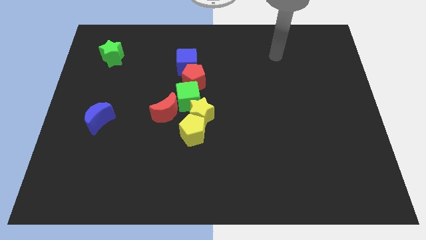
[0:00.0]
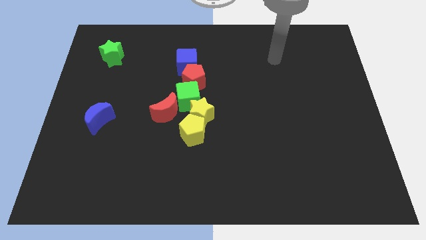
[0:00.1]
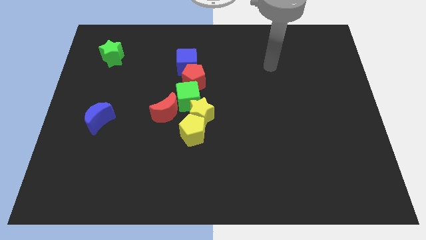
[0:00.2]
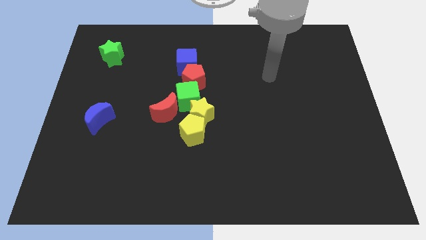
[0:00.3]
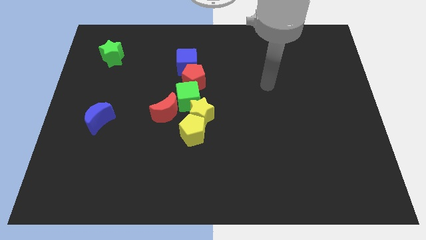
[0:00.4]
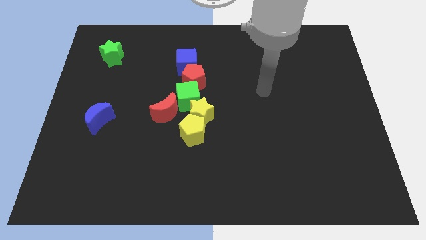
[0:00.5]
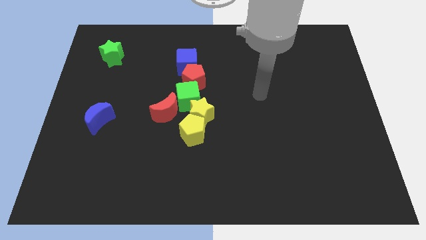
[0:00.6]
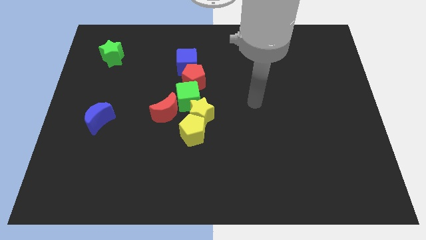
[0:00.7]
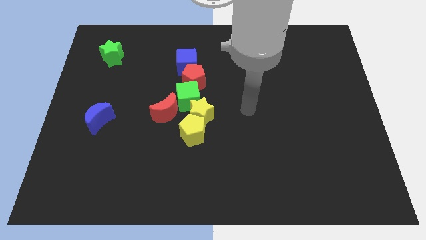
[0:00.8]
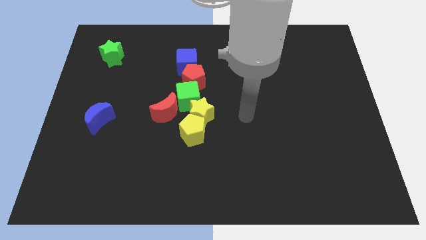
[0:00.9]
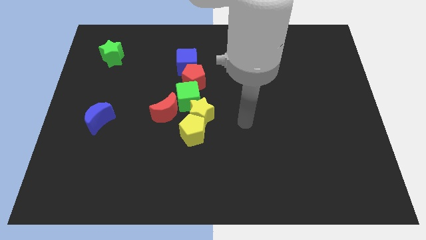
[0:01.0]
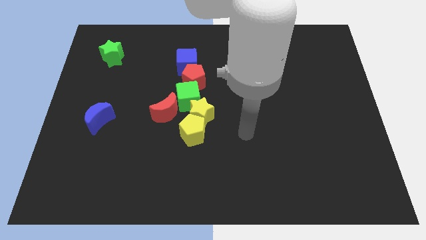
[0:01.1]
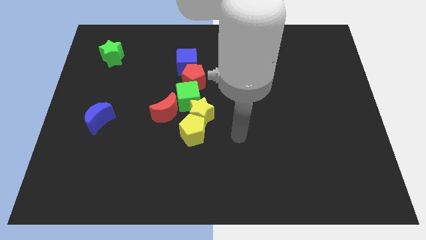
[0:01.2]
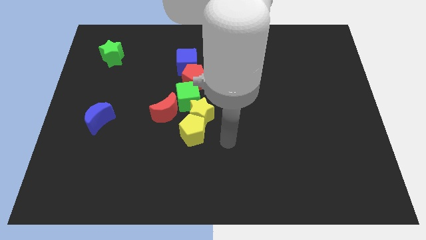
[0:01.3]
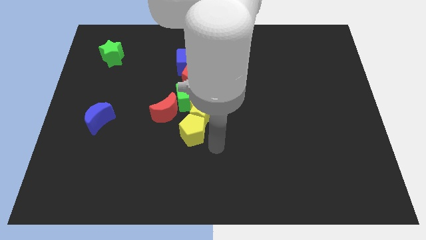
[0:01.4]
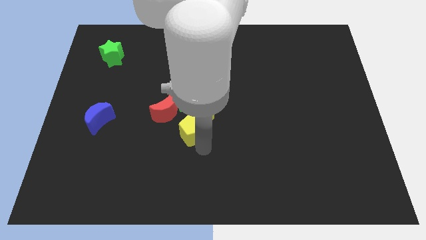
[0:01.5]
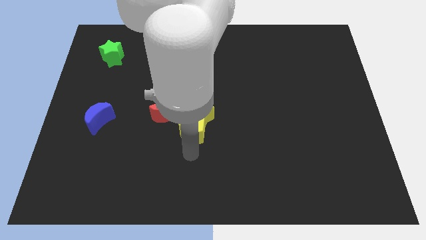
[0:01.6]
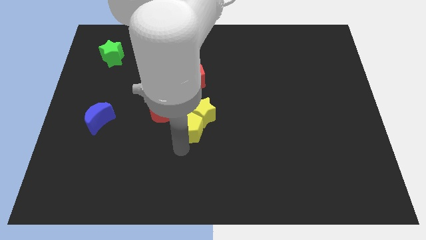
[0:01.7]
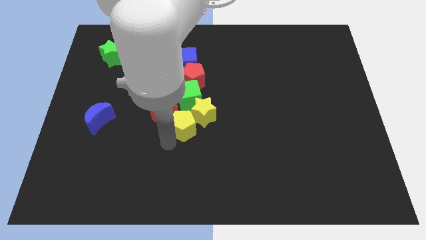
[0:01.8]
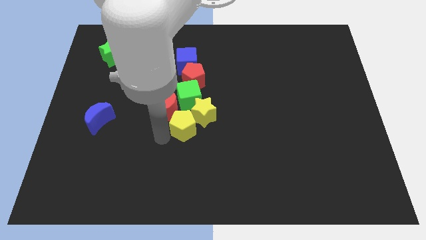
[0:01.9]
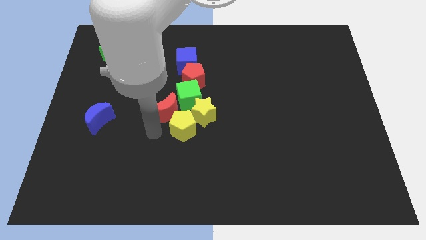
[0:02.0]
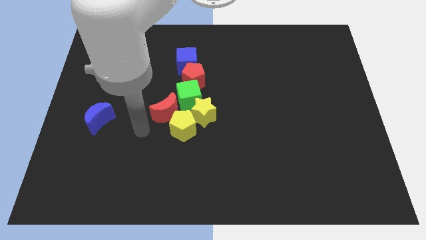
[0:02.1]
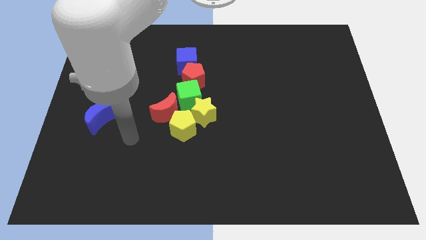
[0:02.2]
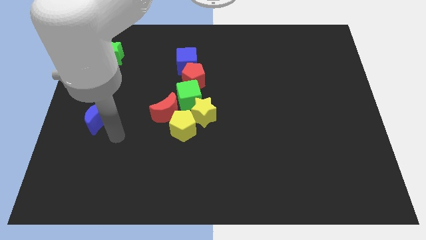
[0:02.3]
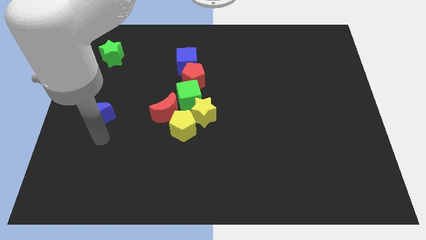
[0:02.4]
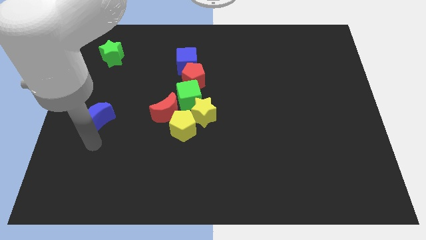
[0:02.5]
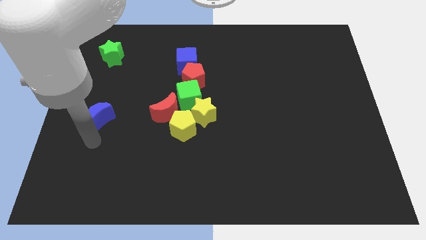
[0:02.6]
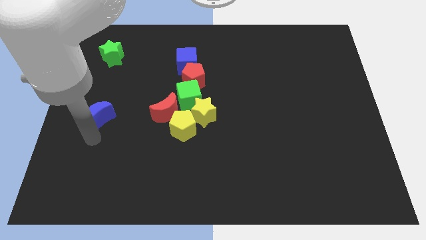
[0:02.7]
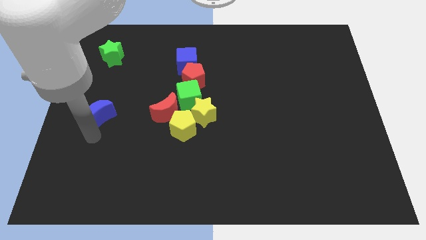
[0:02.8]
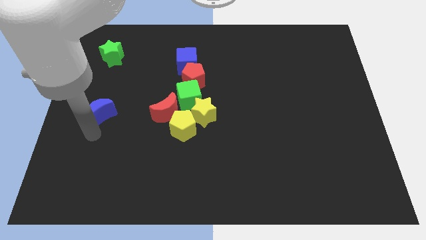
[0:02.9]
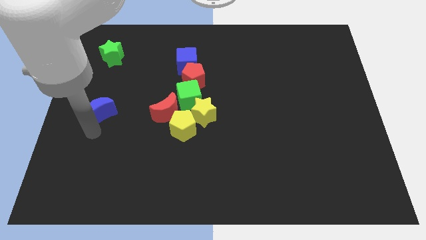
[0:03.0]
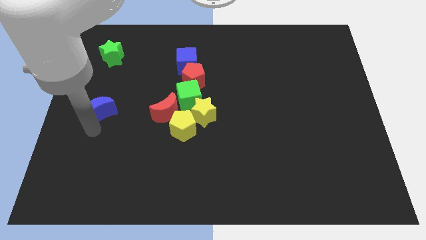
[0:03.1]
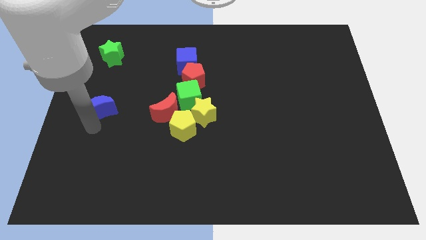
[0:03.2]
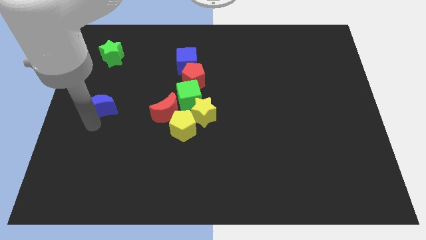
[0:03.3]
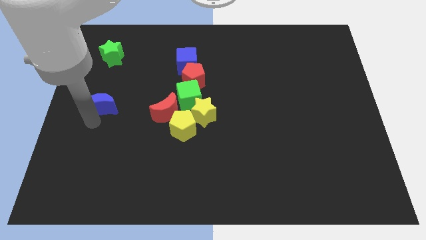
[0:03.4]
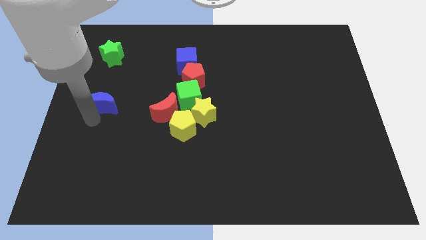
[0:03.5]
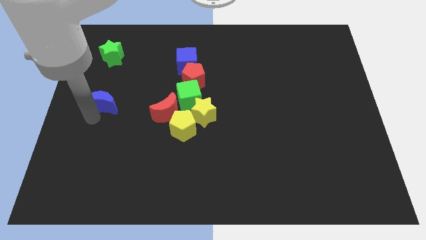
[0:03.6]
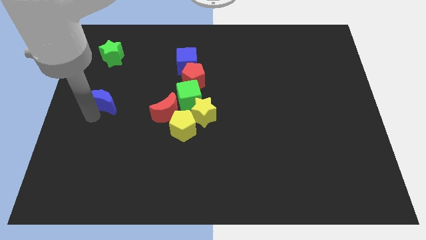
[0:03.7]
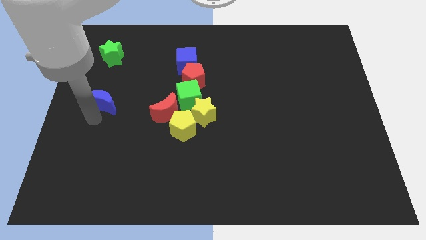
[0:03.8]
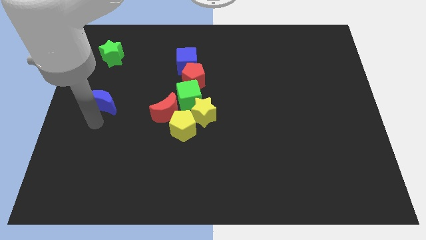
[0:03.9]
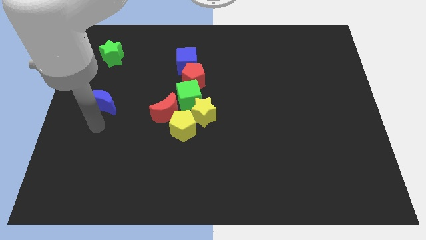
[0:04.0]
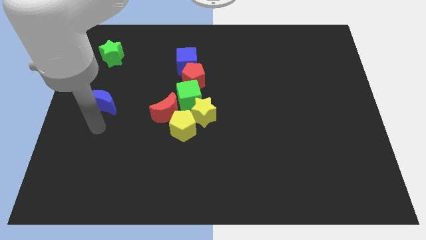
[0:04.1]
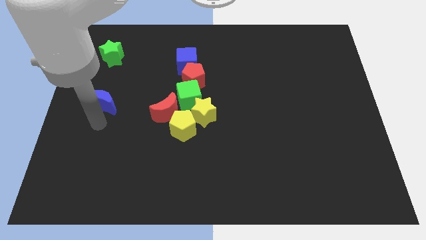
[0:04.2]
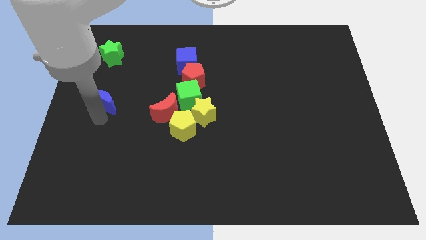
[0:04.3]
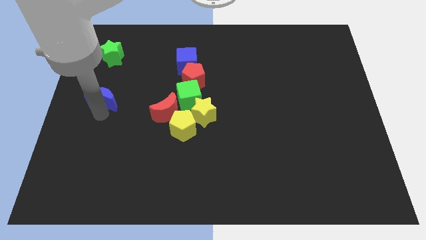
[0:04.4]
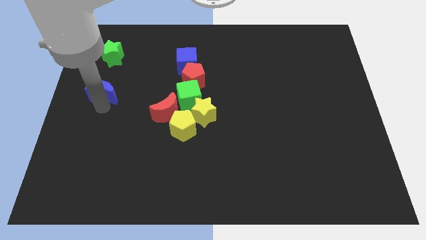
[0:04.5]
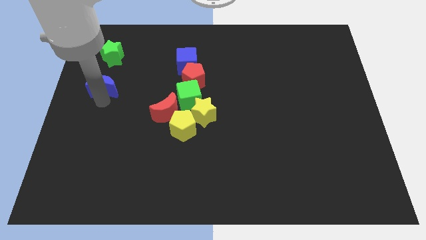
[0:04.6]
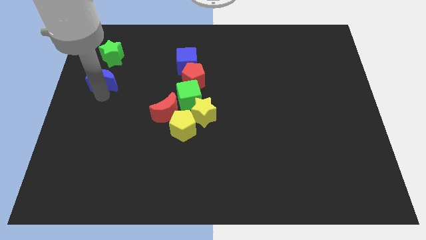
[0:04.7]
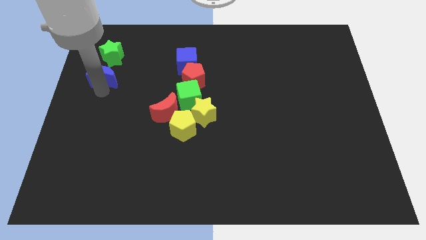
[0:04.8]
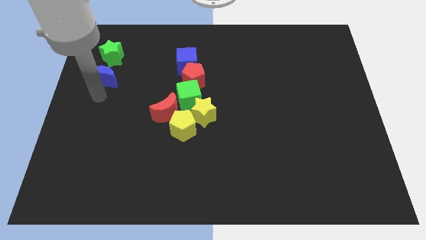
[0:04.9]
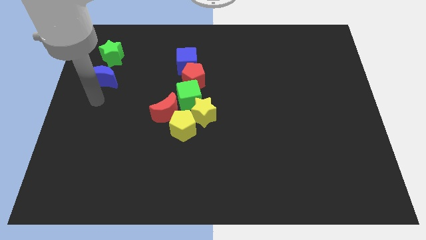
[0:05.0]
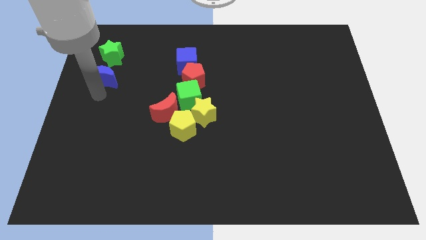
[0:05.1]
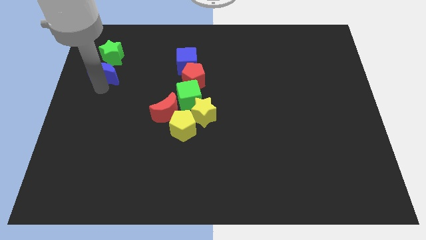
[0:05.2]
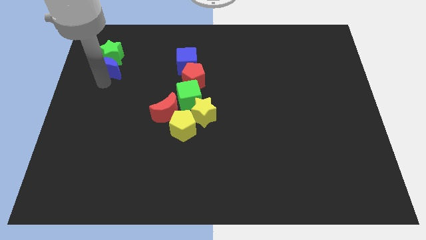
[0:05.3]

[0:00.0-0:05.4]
put the blue moon towards the green star

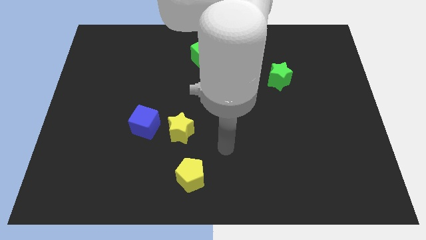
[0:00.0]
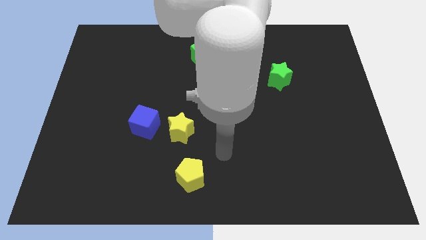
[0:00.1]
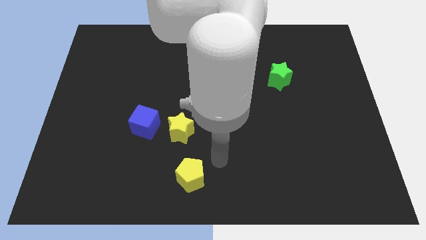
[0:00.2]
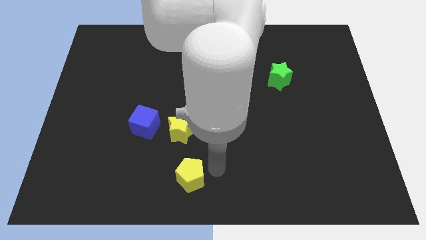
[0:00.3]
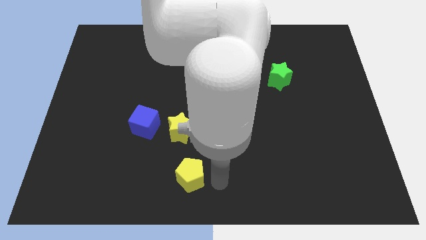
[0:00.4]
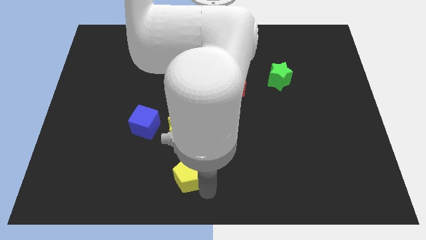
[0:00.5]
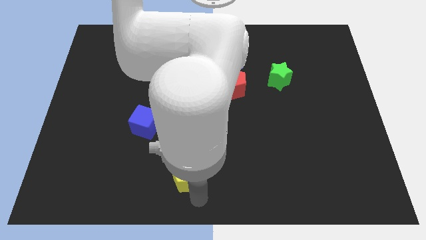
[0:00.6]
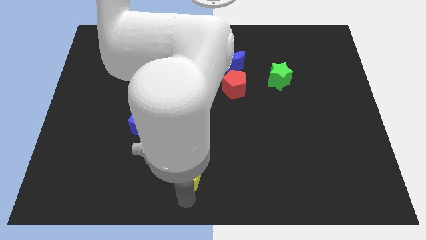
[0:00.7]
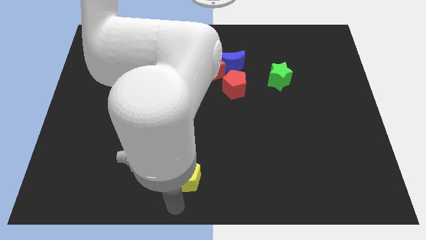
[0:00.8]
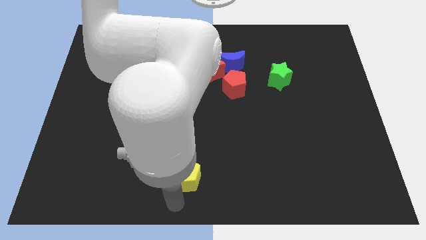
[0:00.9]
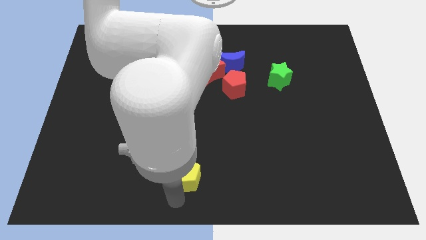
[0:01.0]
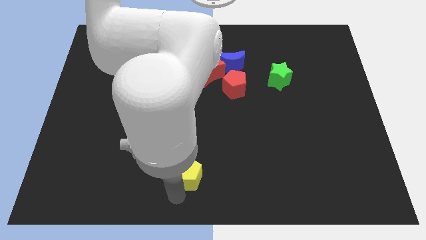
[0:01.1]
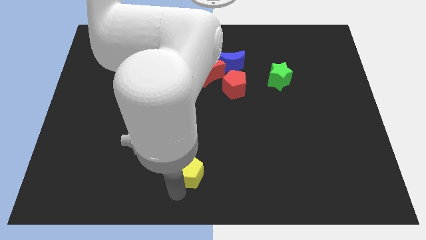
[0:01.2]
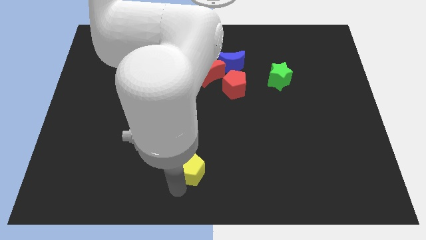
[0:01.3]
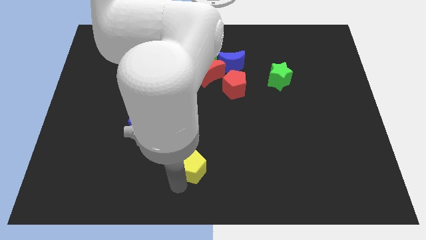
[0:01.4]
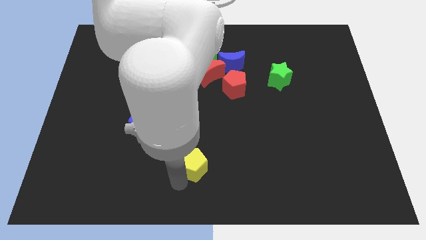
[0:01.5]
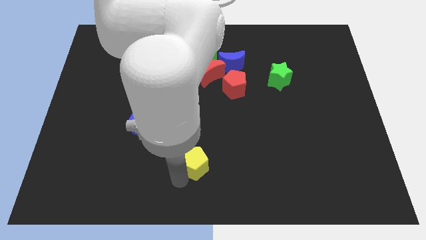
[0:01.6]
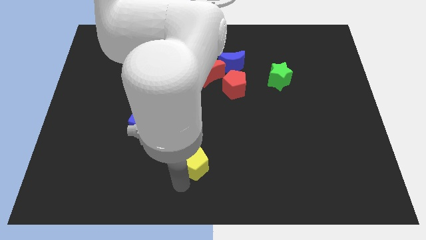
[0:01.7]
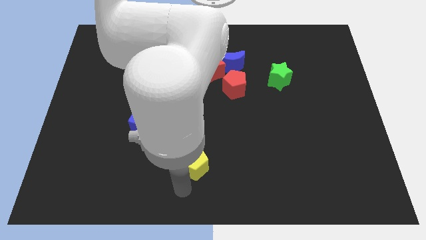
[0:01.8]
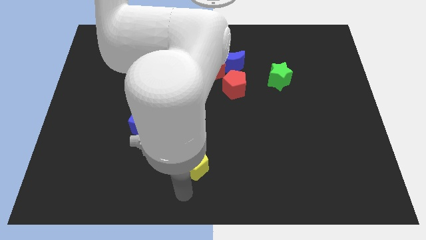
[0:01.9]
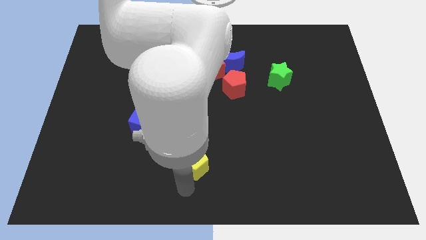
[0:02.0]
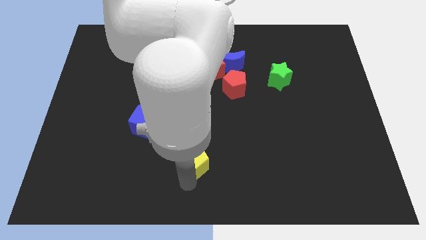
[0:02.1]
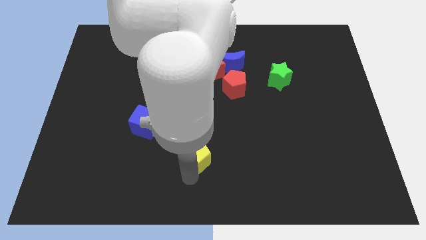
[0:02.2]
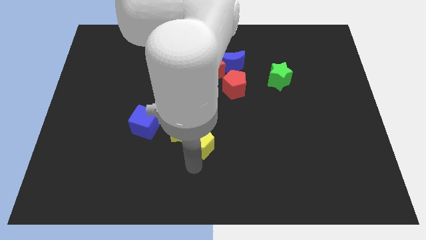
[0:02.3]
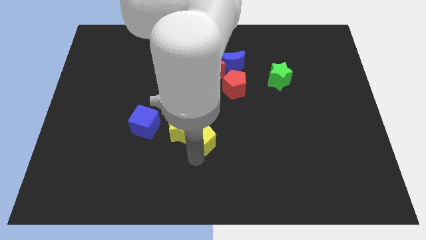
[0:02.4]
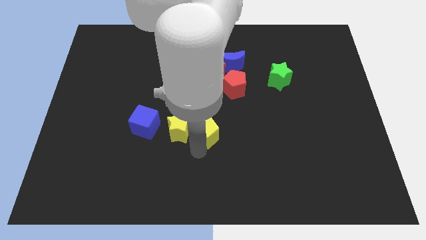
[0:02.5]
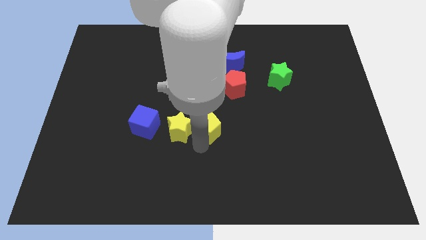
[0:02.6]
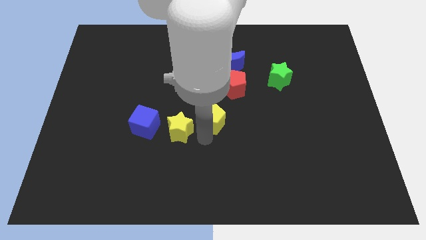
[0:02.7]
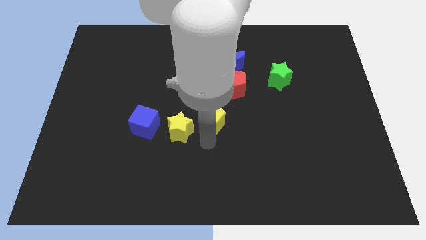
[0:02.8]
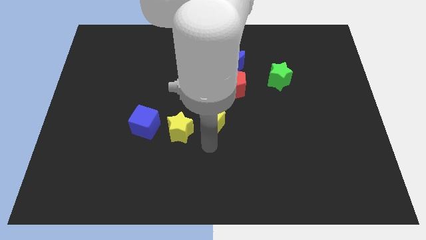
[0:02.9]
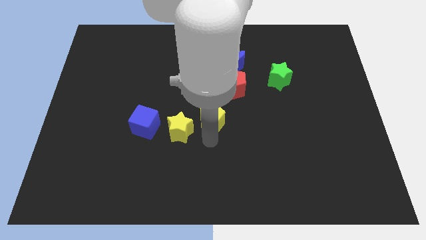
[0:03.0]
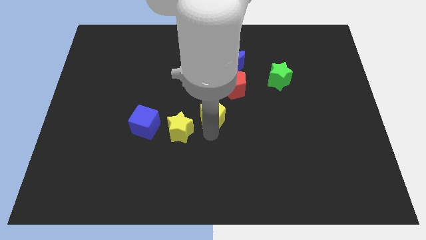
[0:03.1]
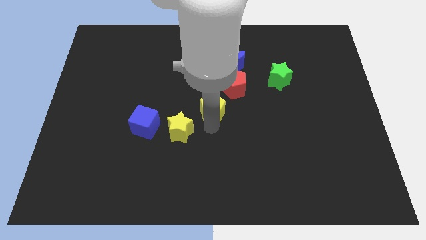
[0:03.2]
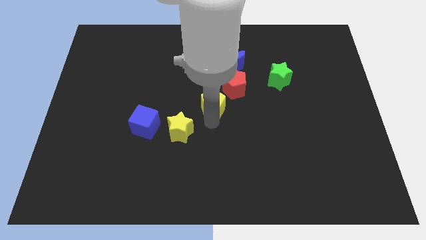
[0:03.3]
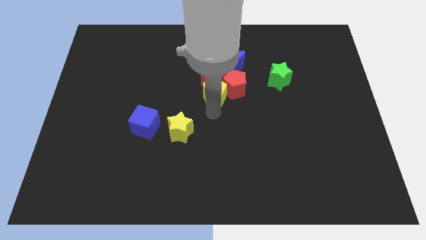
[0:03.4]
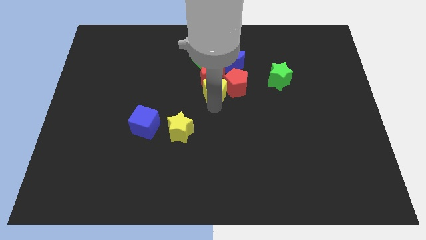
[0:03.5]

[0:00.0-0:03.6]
move the yellow pentagon towards the red moon
